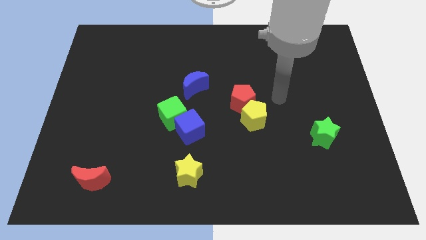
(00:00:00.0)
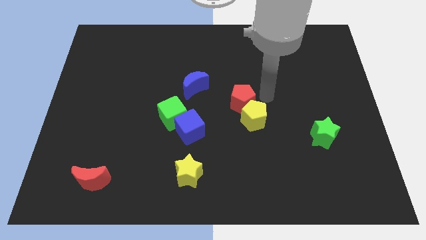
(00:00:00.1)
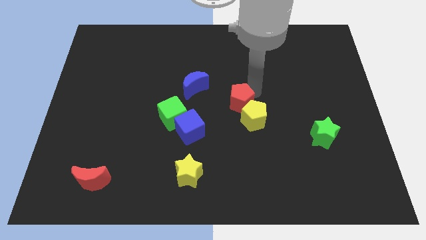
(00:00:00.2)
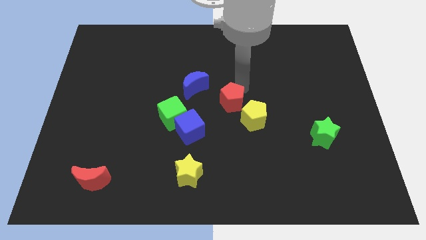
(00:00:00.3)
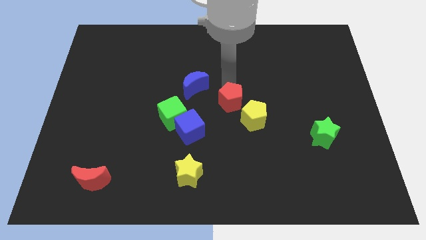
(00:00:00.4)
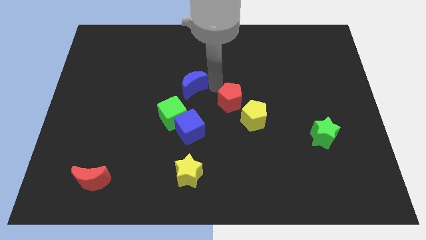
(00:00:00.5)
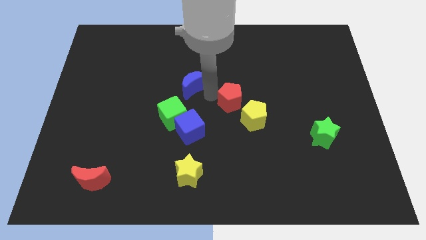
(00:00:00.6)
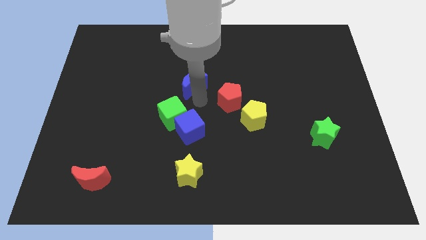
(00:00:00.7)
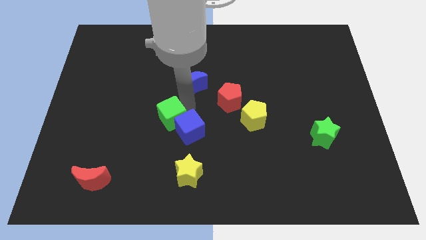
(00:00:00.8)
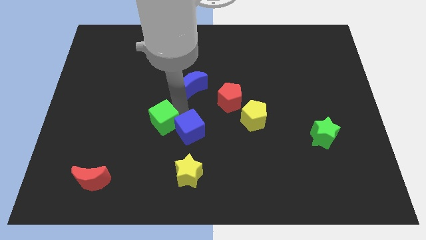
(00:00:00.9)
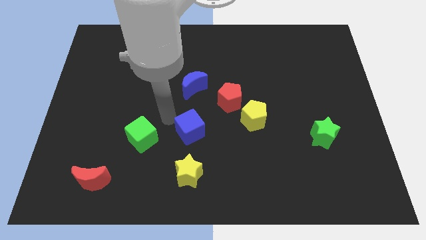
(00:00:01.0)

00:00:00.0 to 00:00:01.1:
separate the blue cube from the green cube

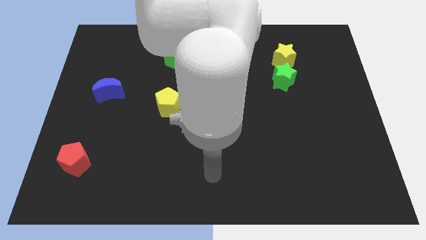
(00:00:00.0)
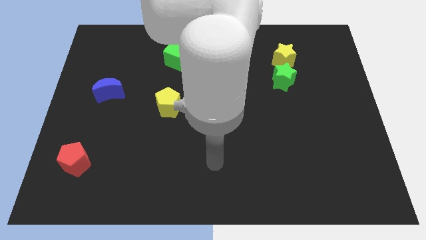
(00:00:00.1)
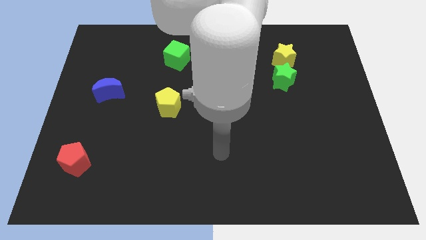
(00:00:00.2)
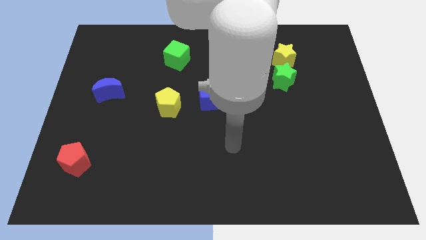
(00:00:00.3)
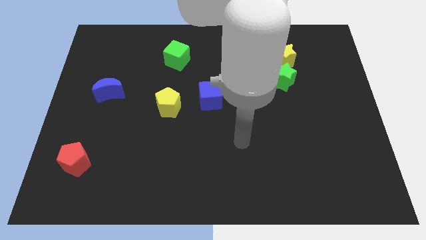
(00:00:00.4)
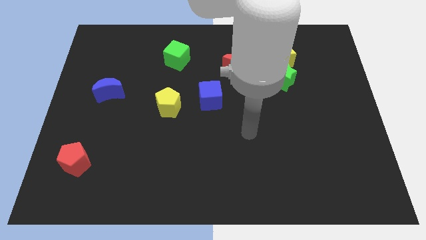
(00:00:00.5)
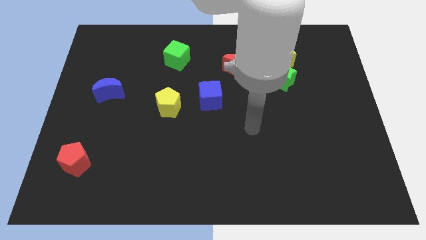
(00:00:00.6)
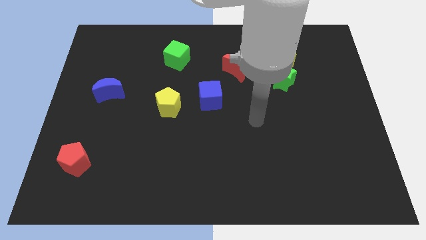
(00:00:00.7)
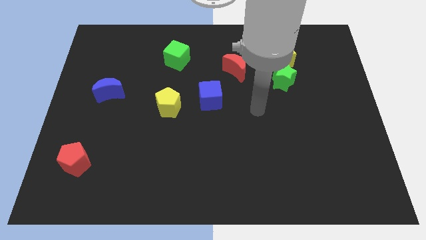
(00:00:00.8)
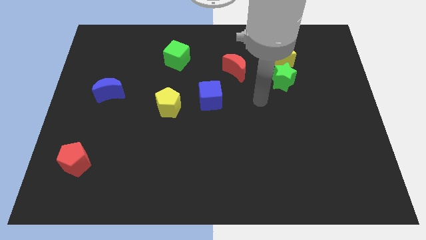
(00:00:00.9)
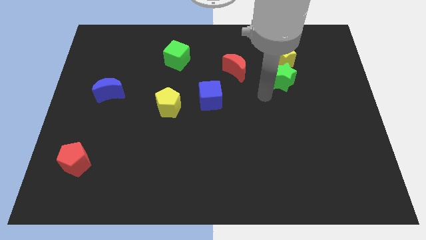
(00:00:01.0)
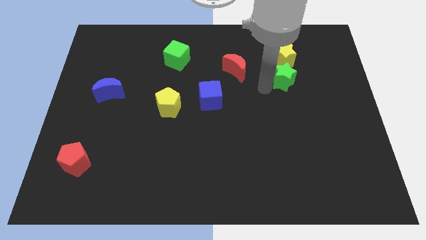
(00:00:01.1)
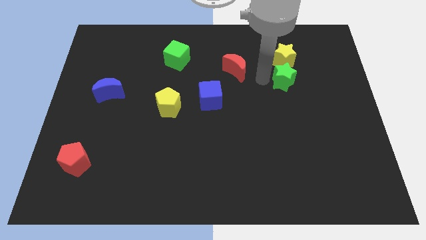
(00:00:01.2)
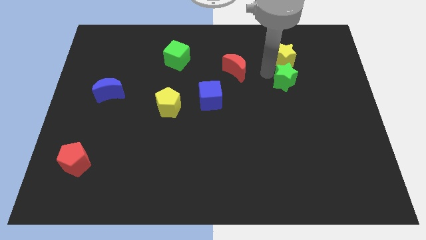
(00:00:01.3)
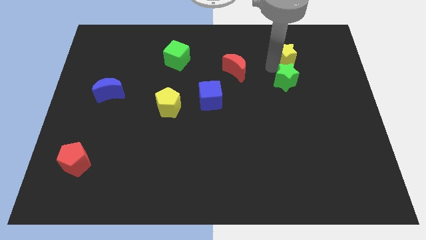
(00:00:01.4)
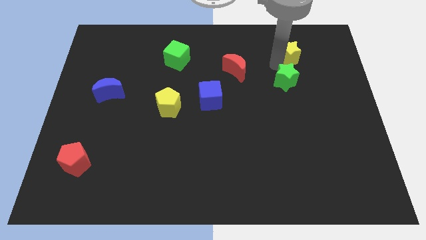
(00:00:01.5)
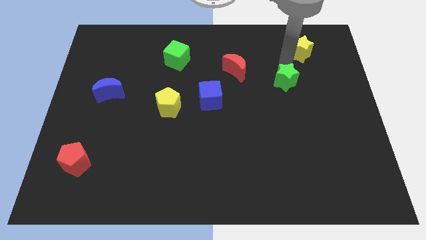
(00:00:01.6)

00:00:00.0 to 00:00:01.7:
pull the green star apart from the yellow star

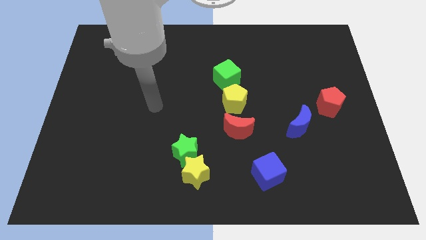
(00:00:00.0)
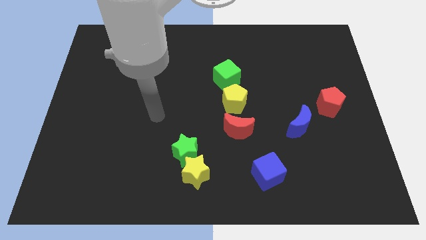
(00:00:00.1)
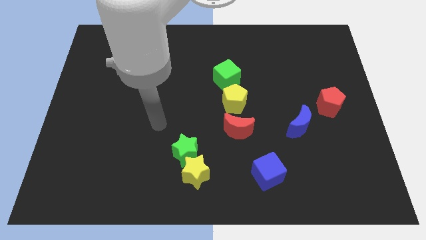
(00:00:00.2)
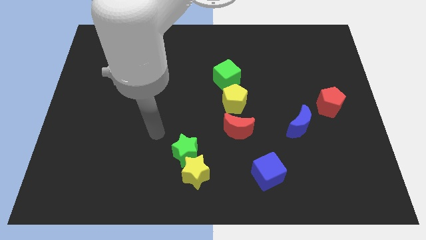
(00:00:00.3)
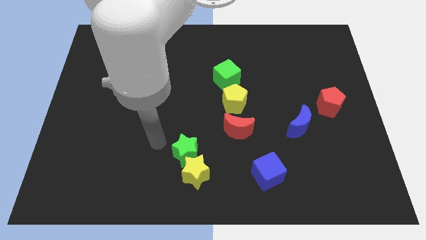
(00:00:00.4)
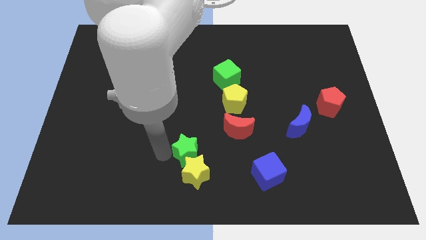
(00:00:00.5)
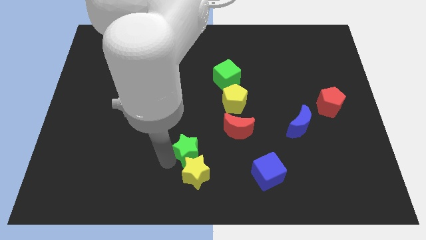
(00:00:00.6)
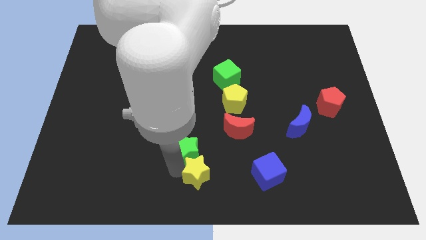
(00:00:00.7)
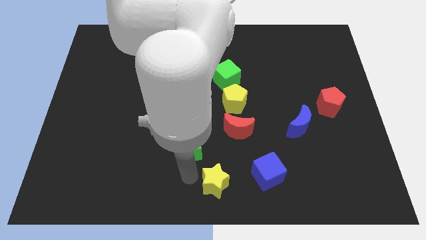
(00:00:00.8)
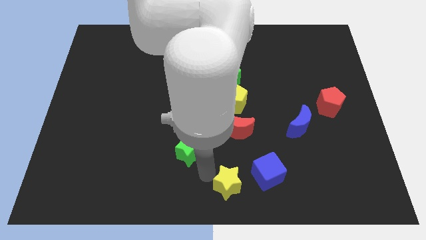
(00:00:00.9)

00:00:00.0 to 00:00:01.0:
move the green star away from the yellow star

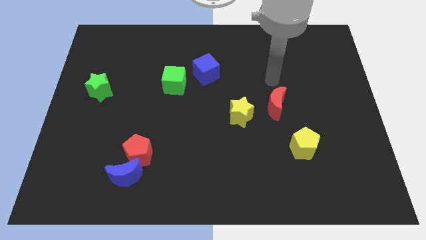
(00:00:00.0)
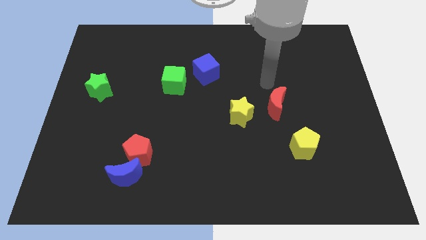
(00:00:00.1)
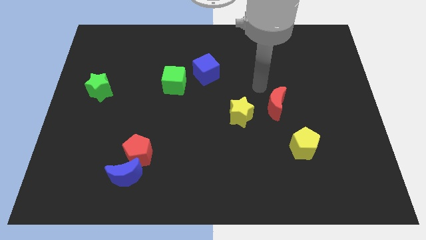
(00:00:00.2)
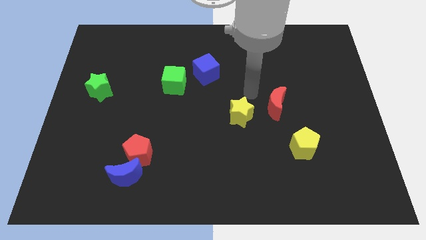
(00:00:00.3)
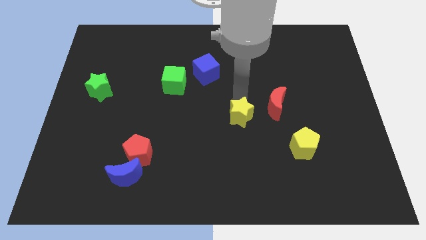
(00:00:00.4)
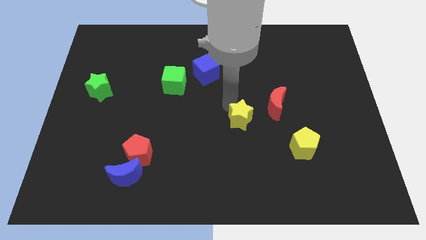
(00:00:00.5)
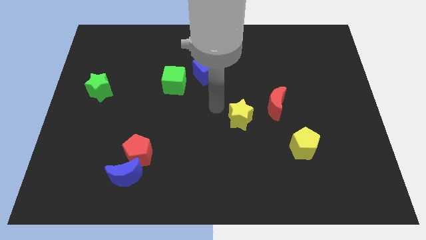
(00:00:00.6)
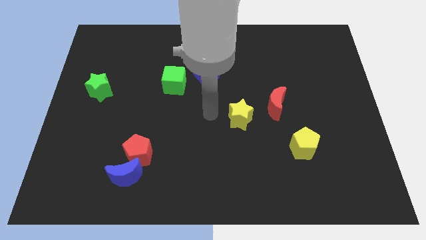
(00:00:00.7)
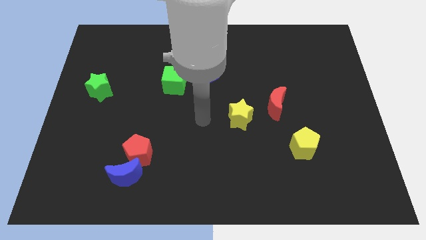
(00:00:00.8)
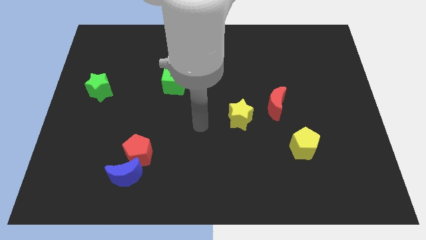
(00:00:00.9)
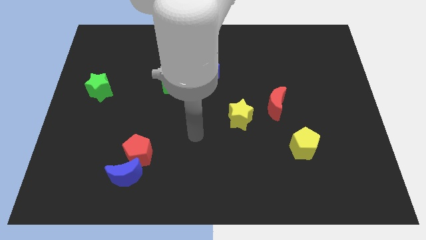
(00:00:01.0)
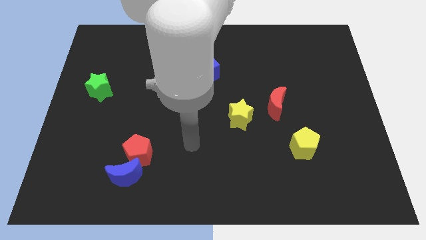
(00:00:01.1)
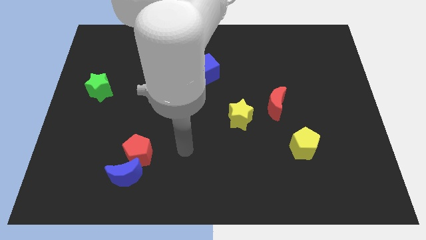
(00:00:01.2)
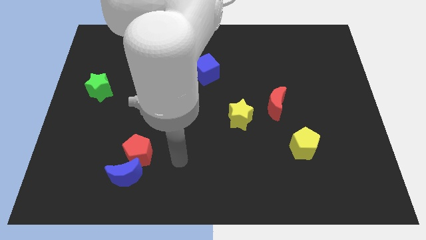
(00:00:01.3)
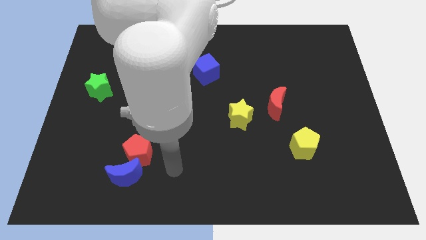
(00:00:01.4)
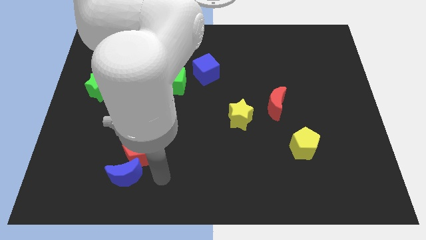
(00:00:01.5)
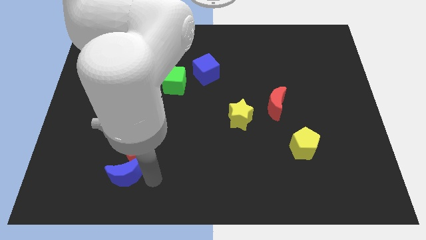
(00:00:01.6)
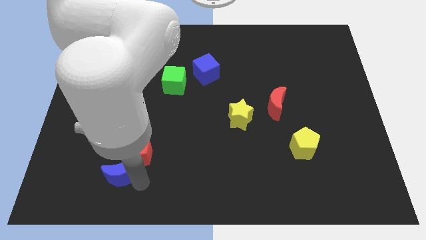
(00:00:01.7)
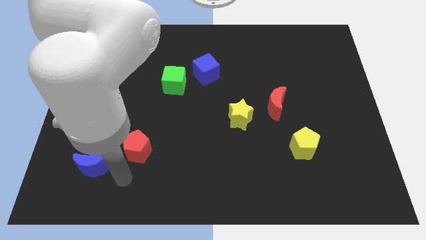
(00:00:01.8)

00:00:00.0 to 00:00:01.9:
pull the red pentagon apart from the blue moon

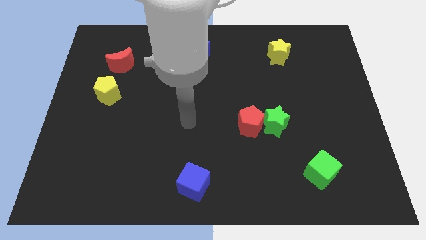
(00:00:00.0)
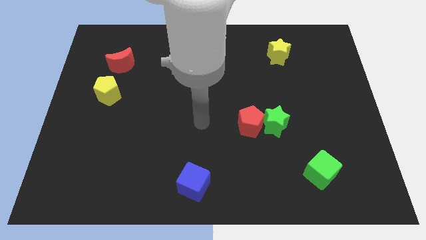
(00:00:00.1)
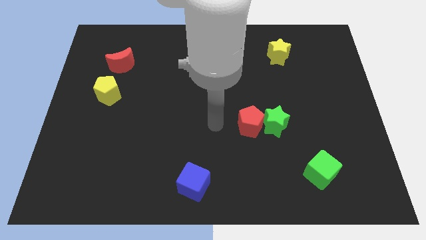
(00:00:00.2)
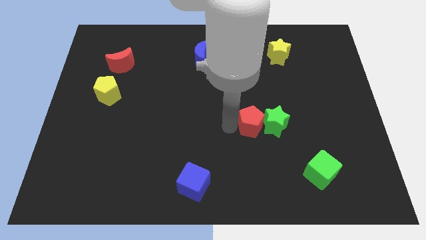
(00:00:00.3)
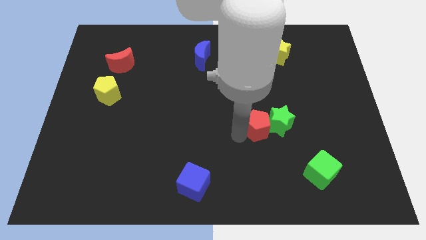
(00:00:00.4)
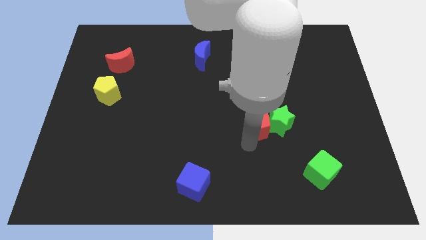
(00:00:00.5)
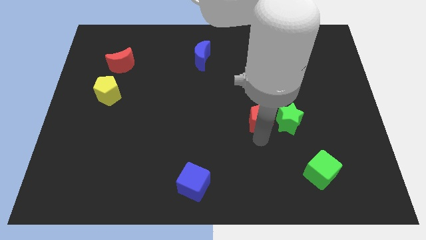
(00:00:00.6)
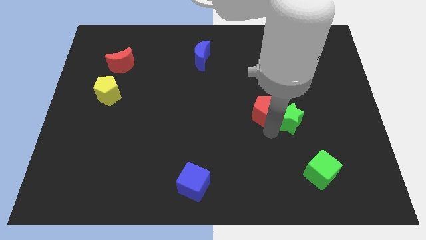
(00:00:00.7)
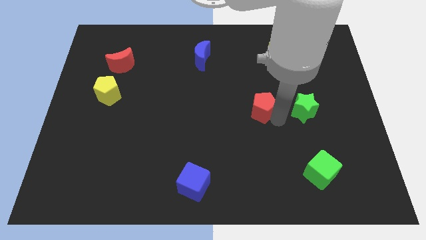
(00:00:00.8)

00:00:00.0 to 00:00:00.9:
move the red pentagon away from the green star

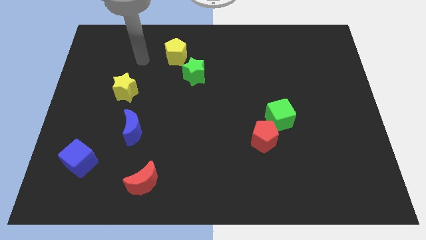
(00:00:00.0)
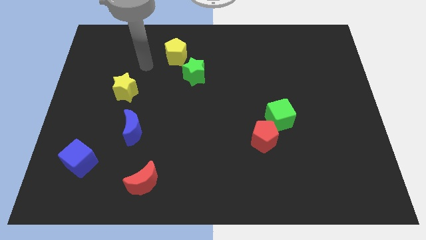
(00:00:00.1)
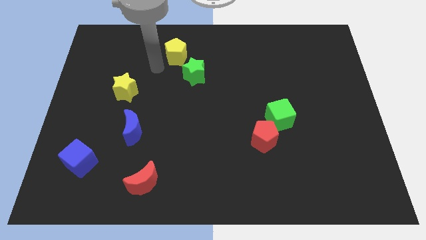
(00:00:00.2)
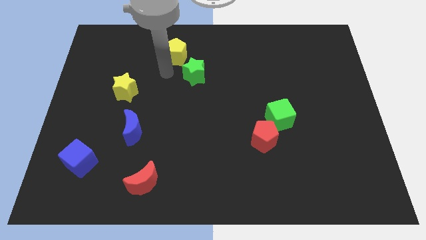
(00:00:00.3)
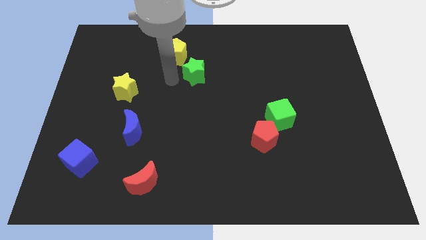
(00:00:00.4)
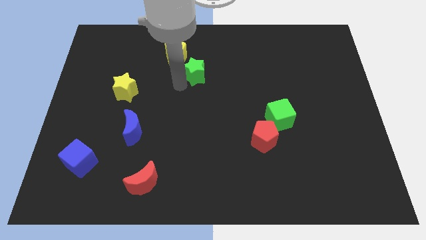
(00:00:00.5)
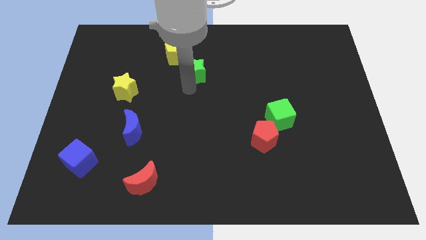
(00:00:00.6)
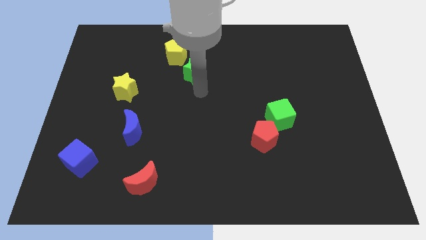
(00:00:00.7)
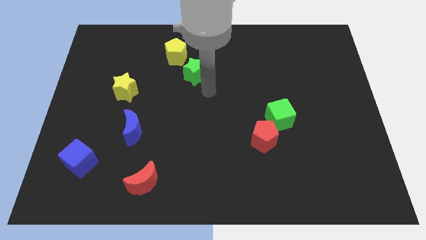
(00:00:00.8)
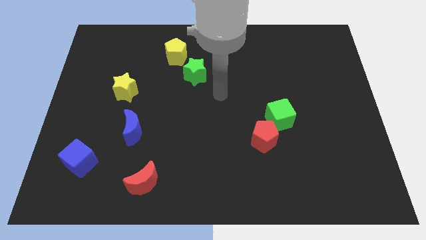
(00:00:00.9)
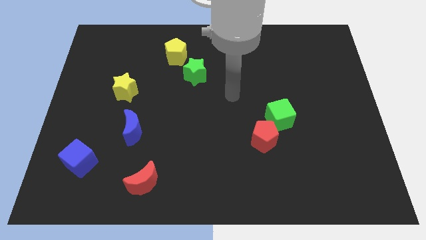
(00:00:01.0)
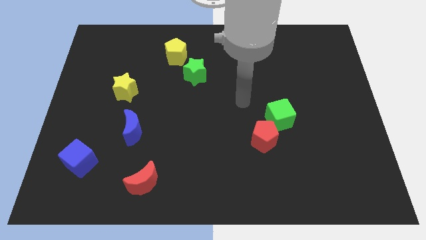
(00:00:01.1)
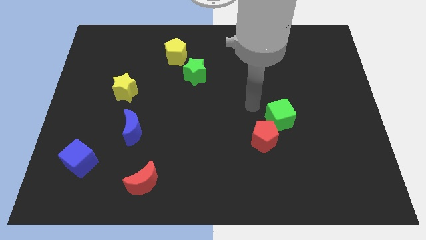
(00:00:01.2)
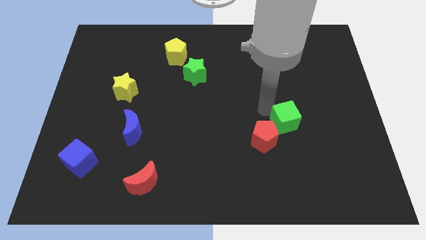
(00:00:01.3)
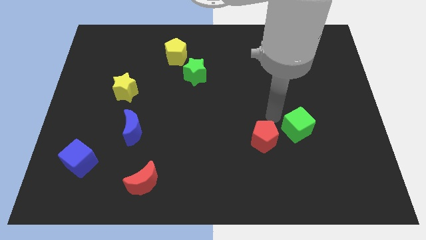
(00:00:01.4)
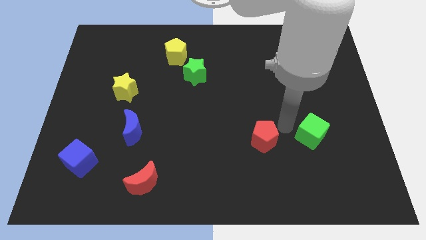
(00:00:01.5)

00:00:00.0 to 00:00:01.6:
pull the red pentagon apart from the green cube

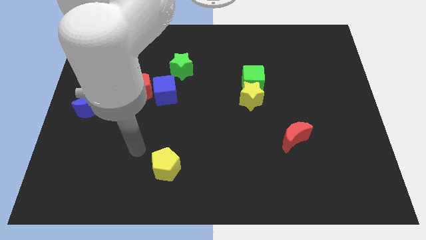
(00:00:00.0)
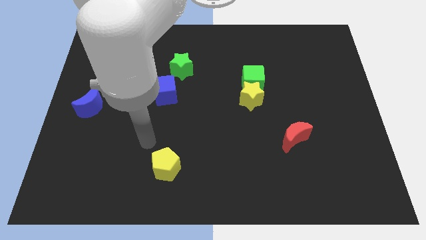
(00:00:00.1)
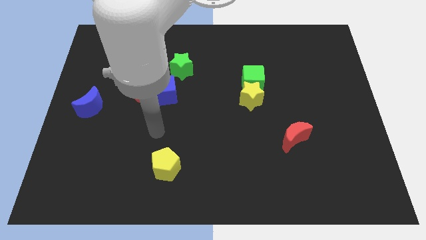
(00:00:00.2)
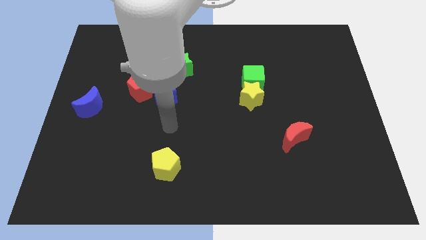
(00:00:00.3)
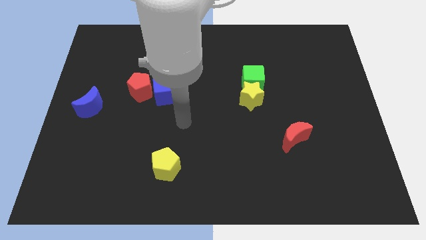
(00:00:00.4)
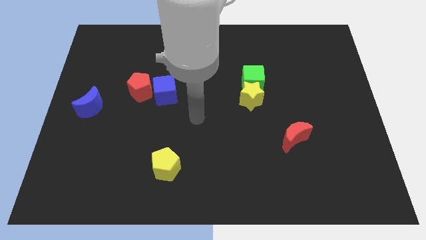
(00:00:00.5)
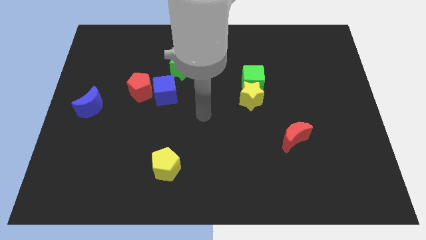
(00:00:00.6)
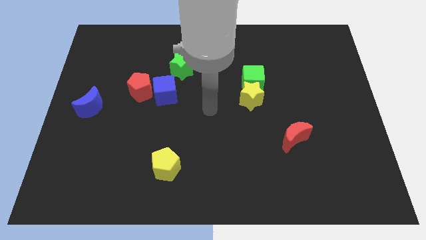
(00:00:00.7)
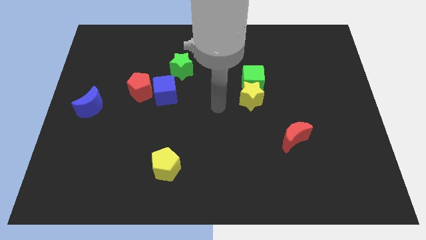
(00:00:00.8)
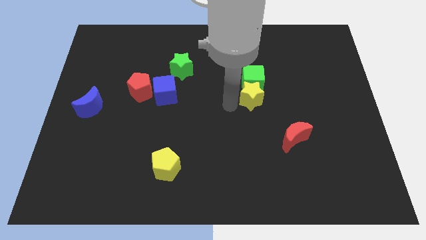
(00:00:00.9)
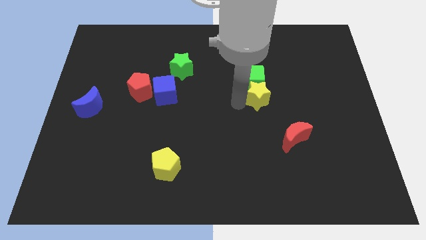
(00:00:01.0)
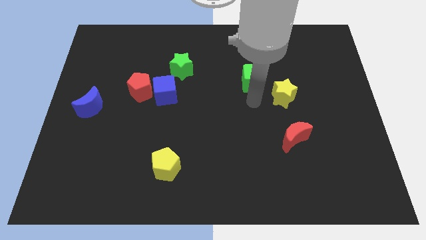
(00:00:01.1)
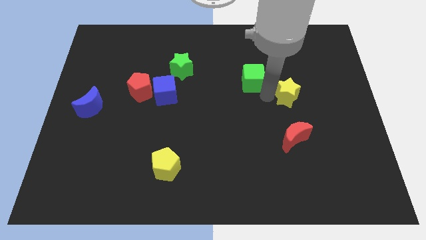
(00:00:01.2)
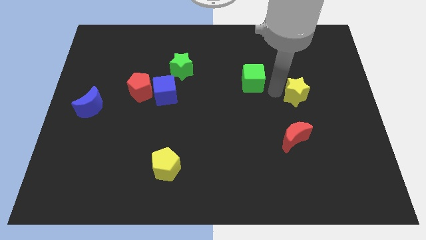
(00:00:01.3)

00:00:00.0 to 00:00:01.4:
move the green cube away from the yellow star
